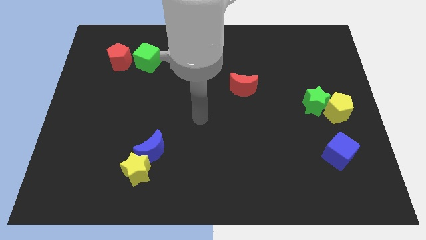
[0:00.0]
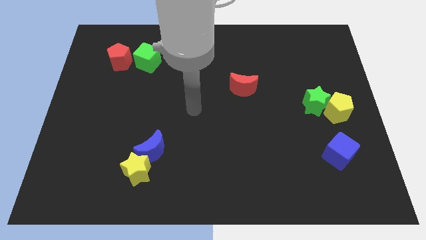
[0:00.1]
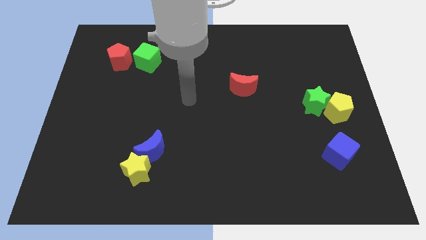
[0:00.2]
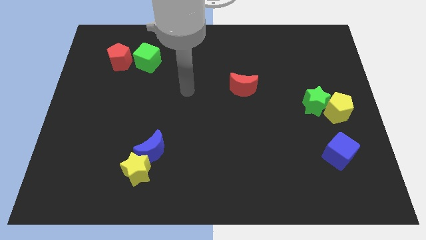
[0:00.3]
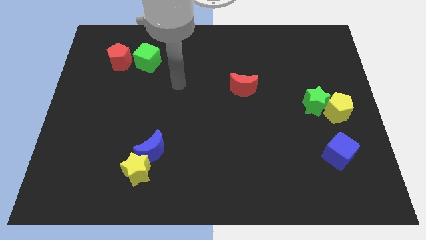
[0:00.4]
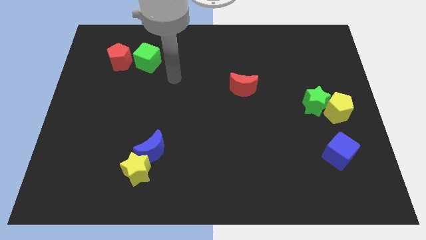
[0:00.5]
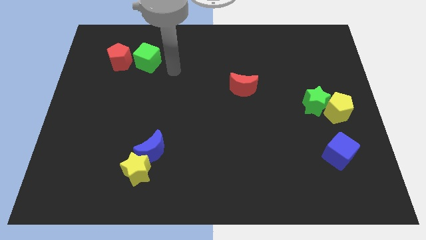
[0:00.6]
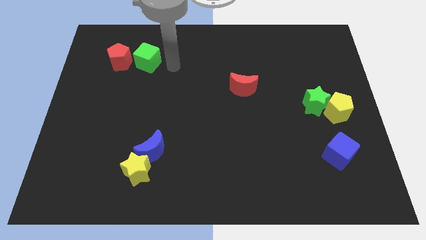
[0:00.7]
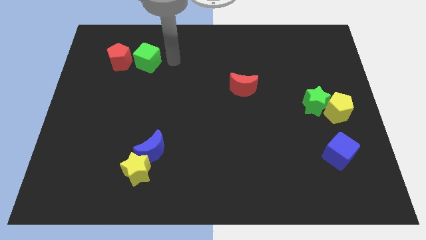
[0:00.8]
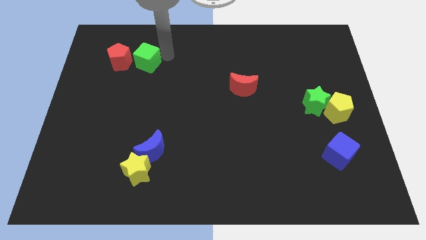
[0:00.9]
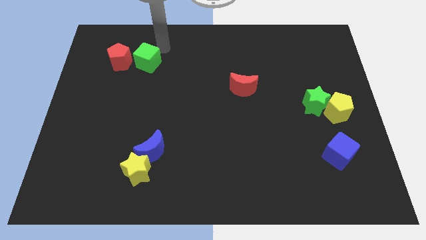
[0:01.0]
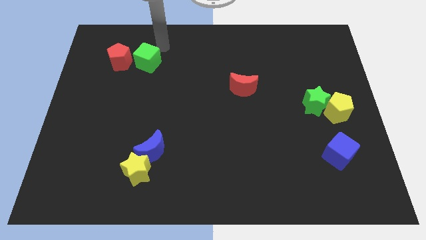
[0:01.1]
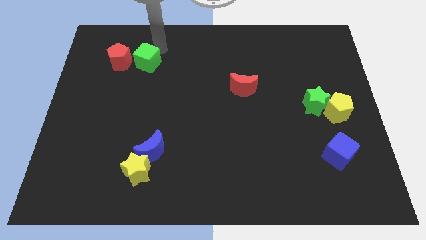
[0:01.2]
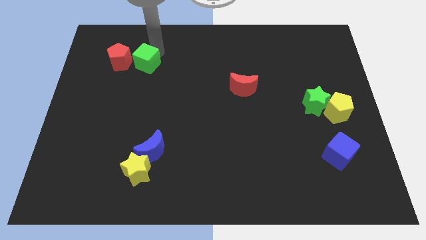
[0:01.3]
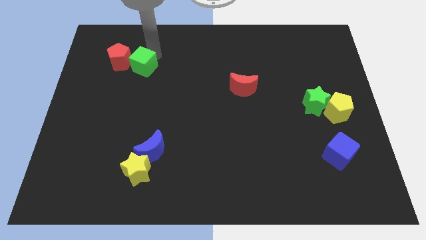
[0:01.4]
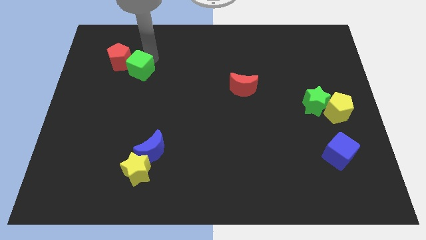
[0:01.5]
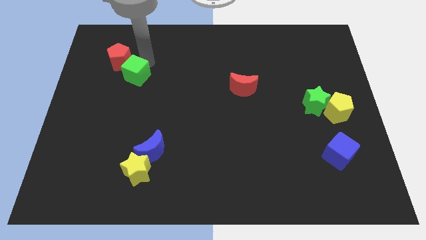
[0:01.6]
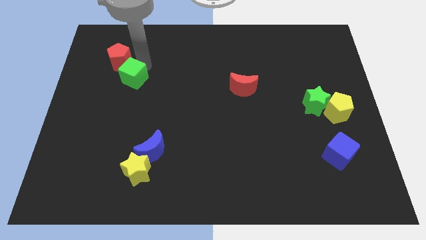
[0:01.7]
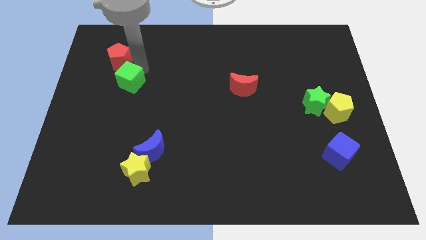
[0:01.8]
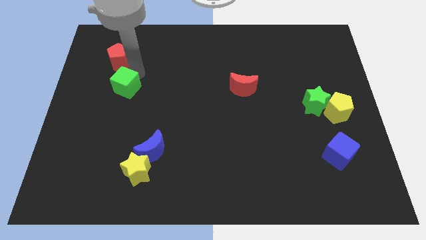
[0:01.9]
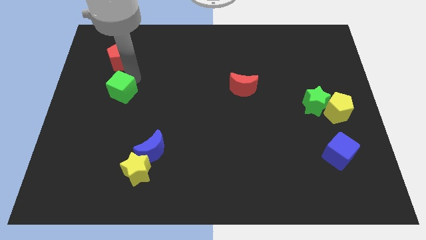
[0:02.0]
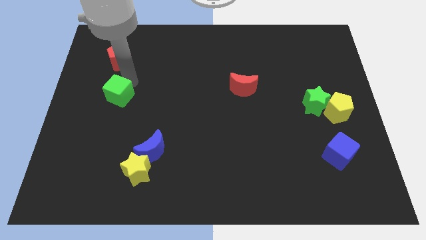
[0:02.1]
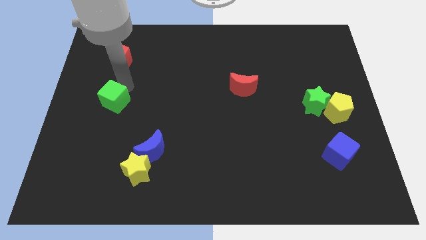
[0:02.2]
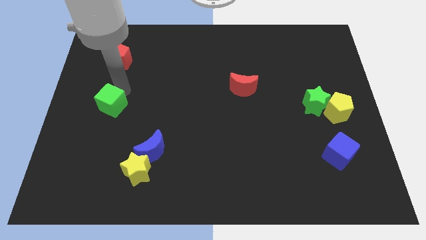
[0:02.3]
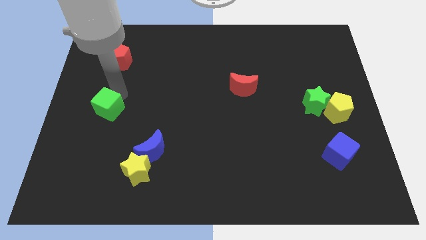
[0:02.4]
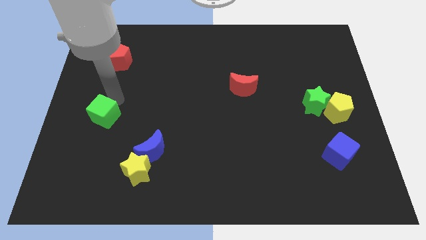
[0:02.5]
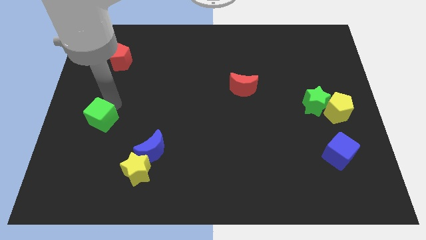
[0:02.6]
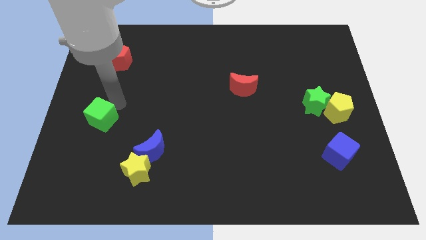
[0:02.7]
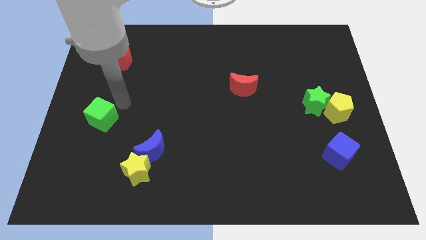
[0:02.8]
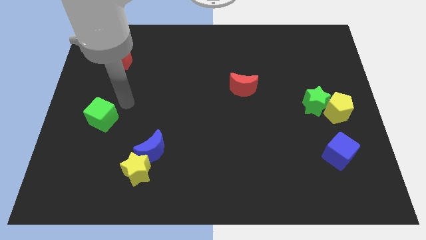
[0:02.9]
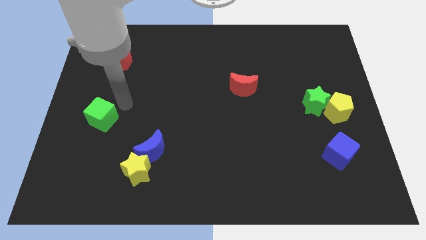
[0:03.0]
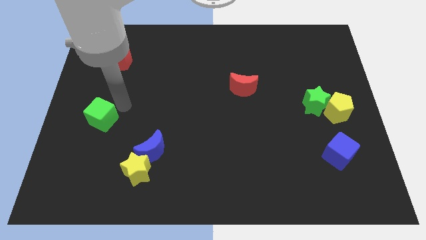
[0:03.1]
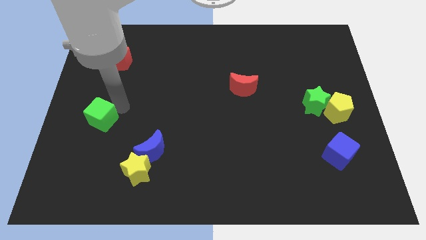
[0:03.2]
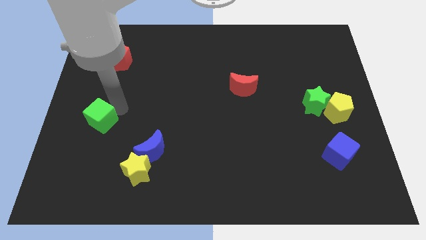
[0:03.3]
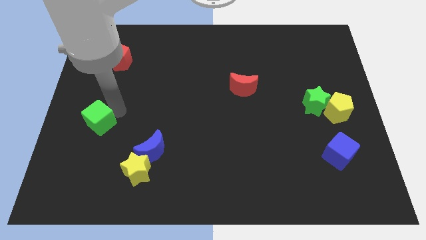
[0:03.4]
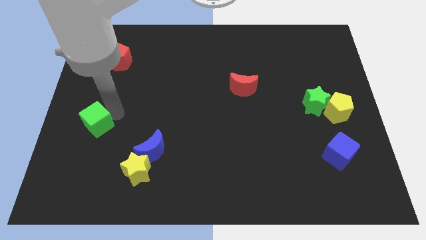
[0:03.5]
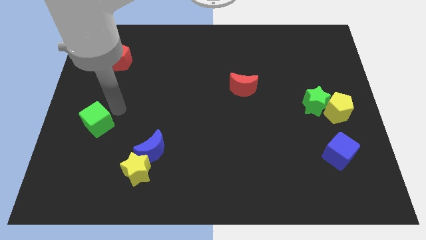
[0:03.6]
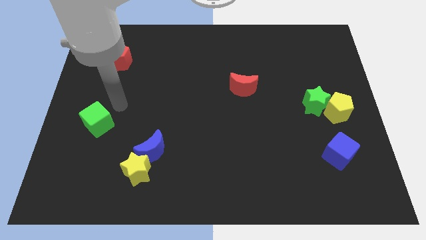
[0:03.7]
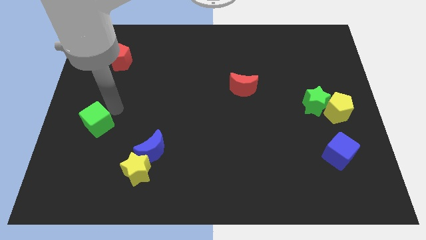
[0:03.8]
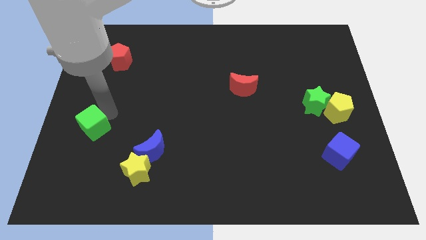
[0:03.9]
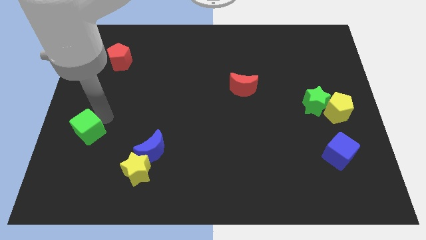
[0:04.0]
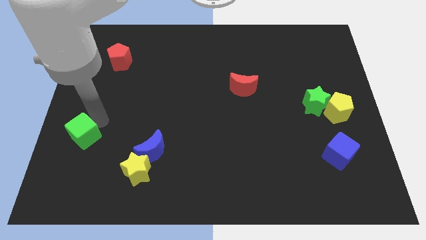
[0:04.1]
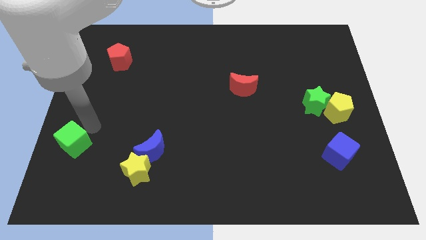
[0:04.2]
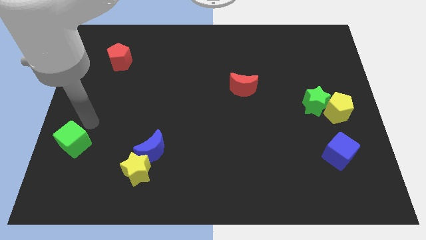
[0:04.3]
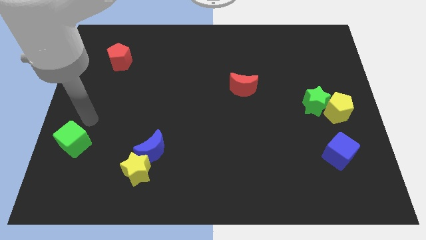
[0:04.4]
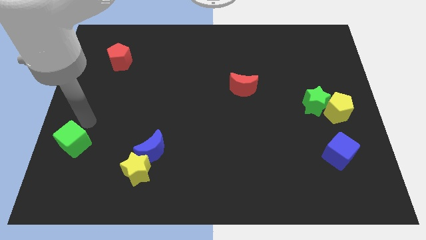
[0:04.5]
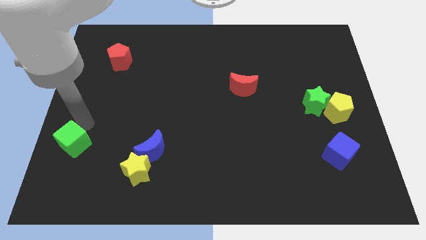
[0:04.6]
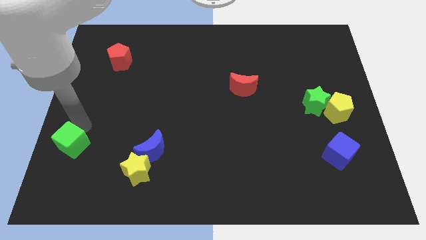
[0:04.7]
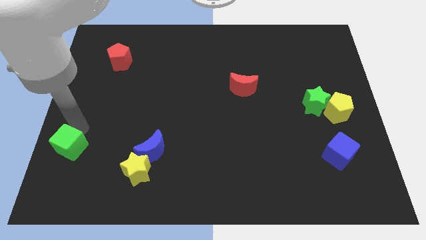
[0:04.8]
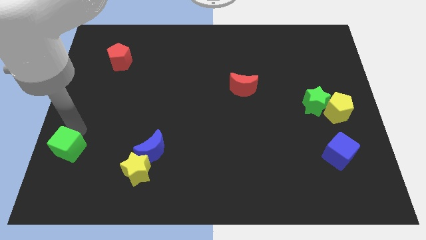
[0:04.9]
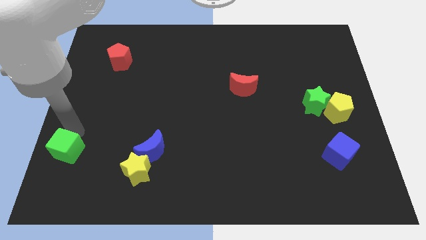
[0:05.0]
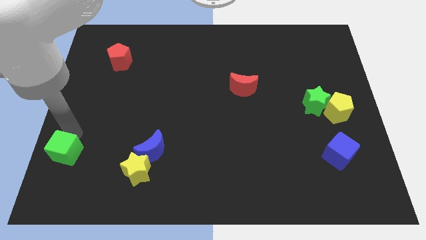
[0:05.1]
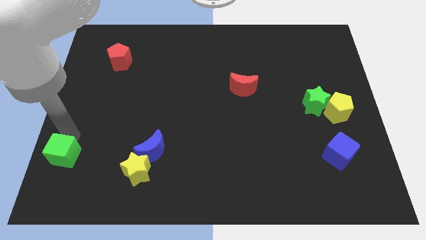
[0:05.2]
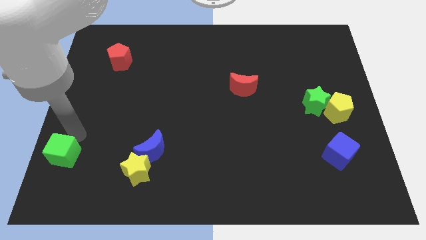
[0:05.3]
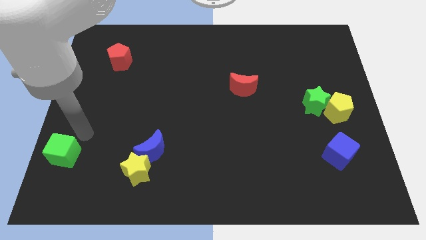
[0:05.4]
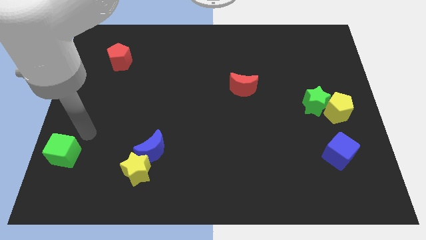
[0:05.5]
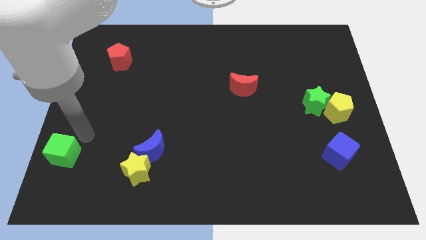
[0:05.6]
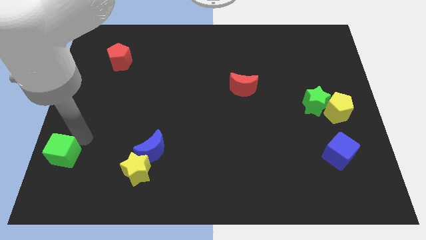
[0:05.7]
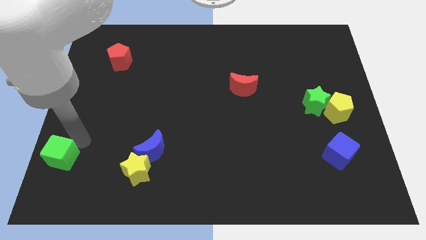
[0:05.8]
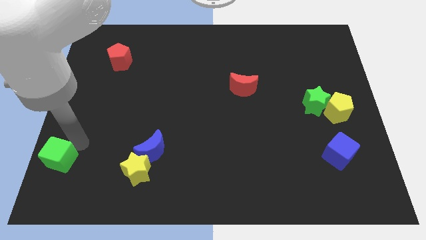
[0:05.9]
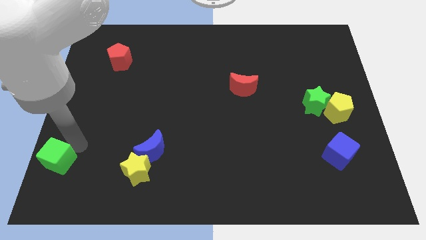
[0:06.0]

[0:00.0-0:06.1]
push the green cube to the bottom left
